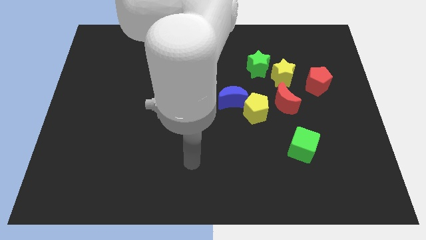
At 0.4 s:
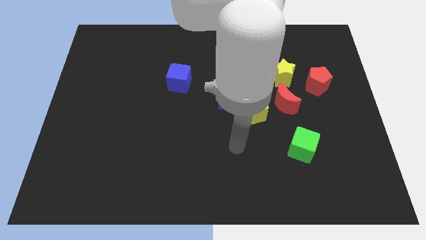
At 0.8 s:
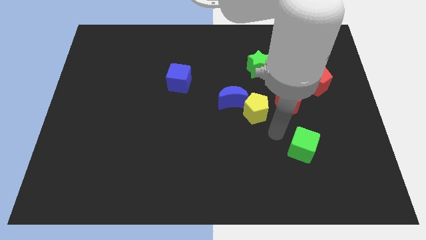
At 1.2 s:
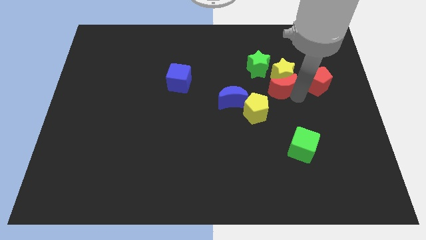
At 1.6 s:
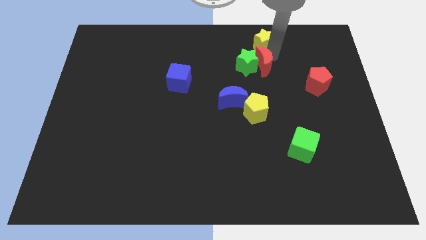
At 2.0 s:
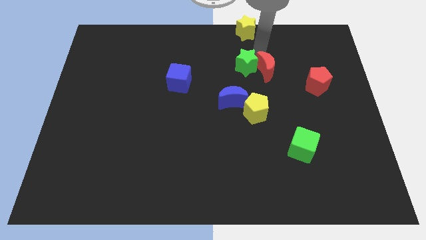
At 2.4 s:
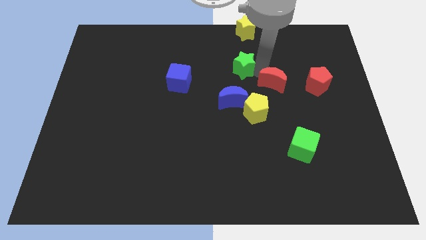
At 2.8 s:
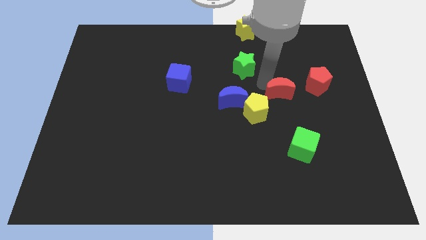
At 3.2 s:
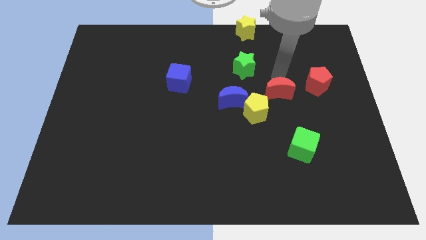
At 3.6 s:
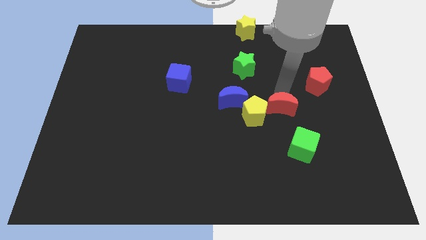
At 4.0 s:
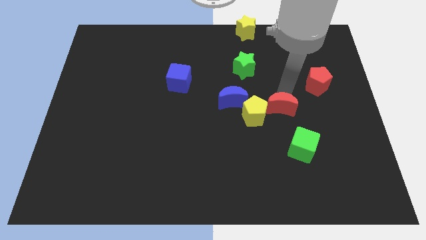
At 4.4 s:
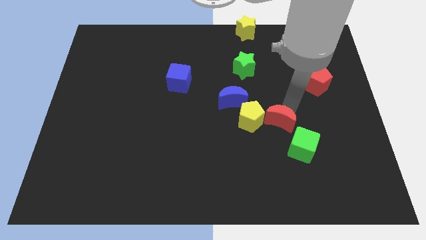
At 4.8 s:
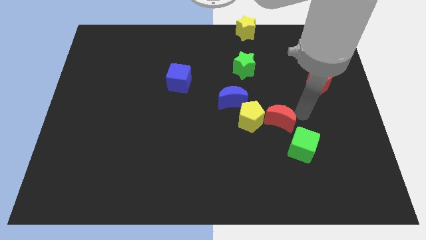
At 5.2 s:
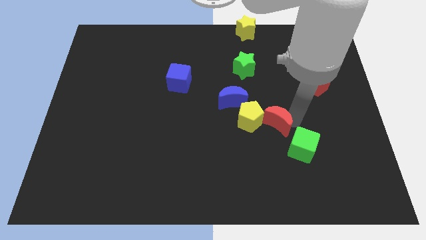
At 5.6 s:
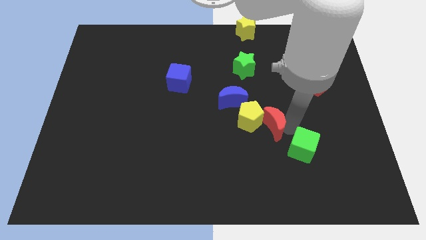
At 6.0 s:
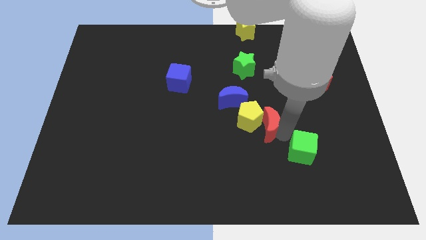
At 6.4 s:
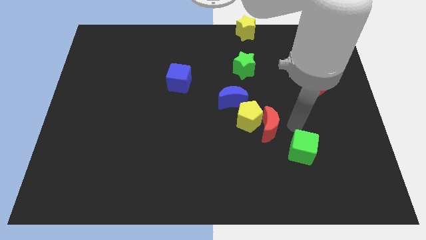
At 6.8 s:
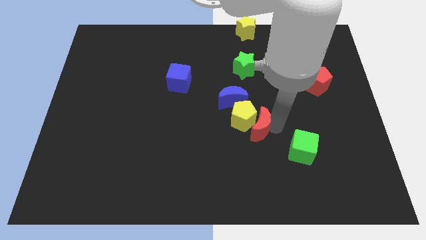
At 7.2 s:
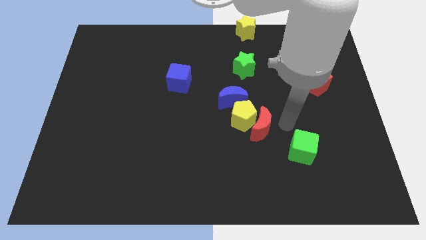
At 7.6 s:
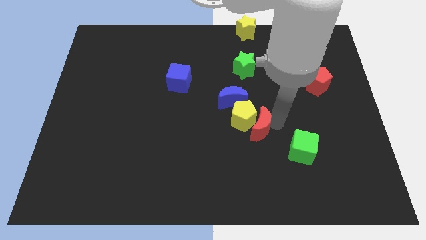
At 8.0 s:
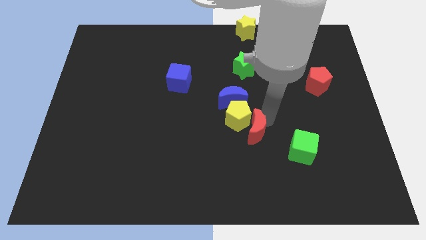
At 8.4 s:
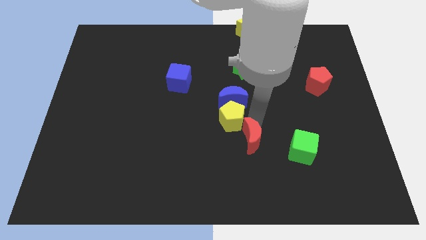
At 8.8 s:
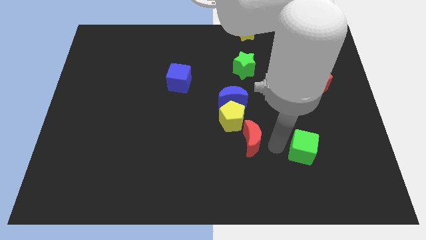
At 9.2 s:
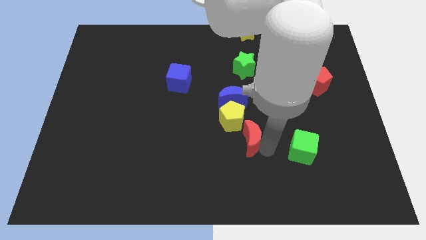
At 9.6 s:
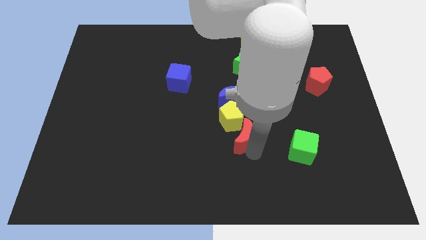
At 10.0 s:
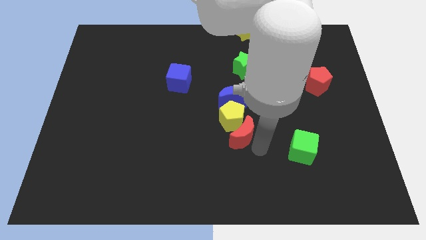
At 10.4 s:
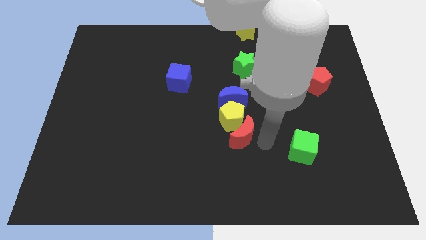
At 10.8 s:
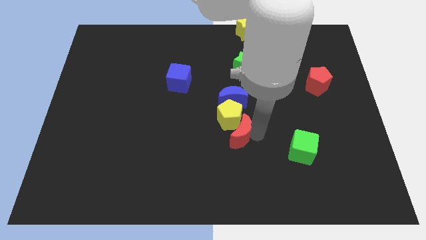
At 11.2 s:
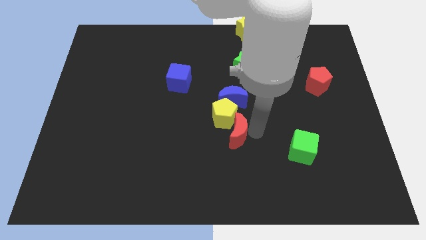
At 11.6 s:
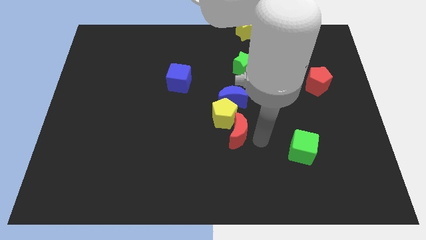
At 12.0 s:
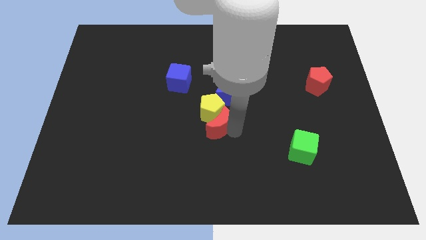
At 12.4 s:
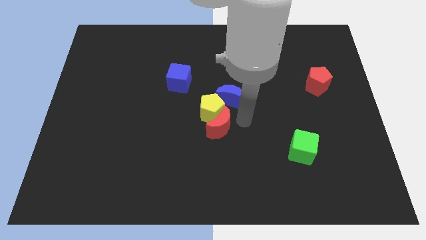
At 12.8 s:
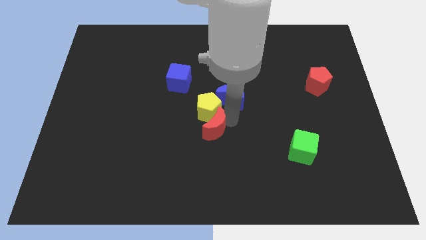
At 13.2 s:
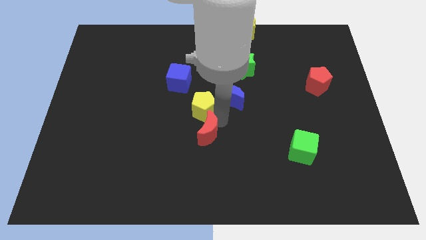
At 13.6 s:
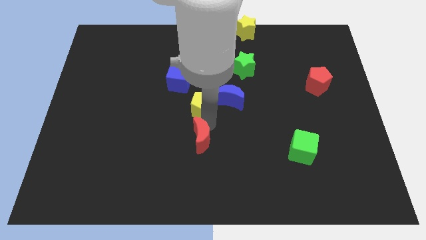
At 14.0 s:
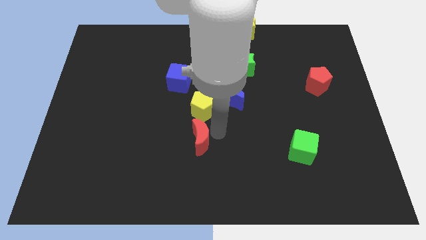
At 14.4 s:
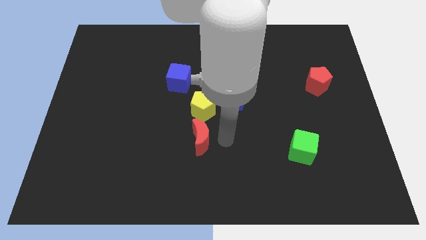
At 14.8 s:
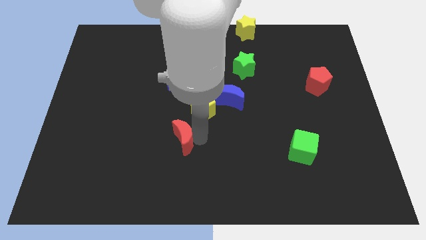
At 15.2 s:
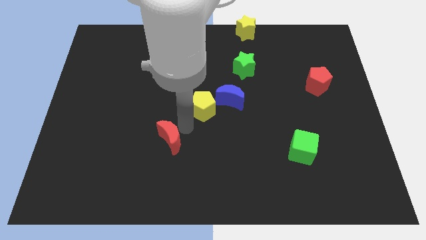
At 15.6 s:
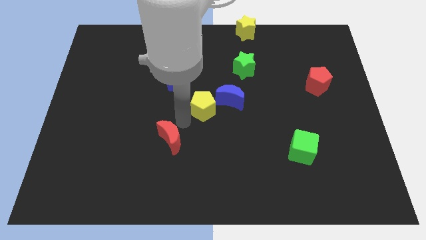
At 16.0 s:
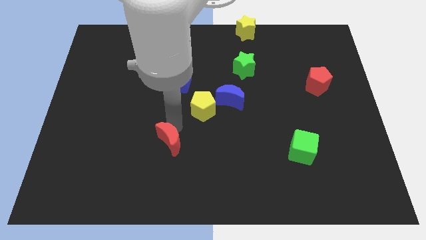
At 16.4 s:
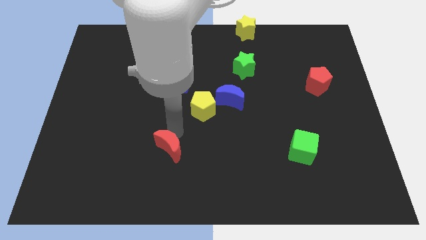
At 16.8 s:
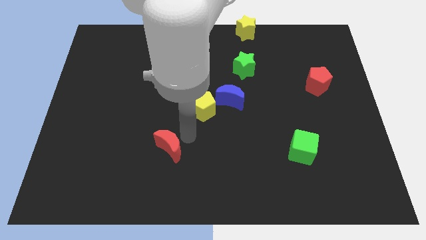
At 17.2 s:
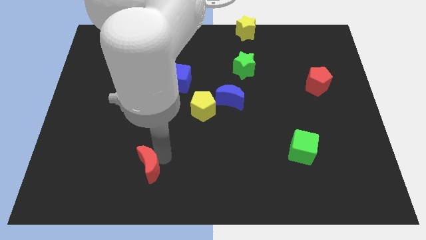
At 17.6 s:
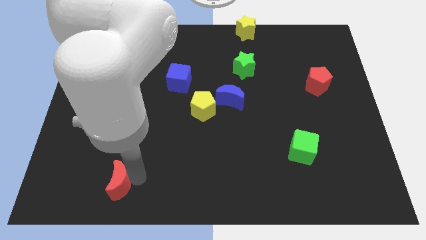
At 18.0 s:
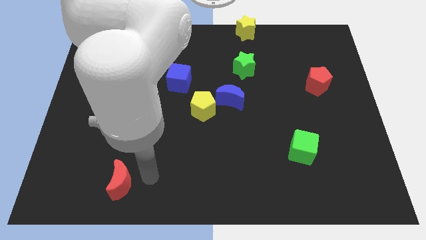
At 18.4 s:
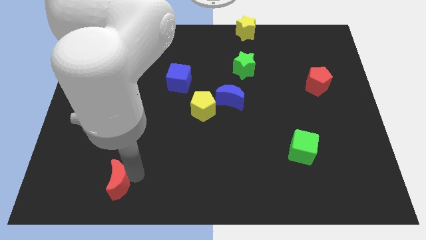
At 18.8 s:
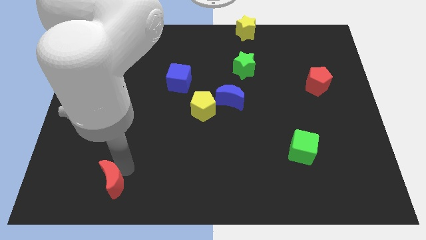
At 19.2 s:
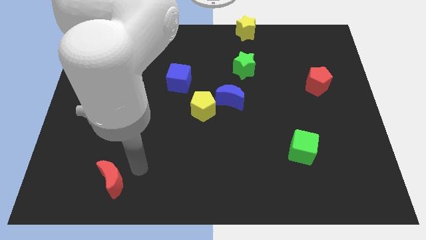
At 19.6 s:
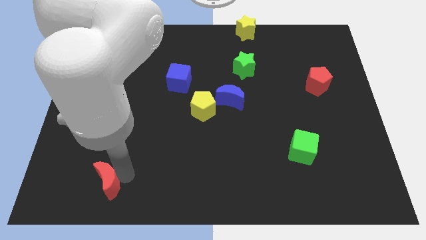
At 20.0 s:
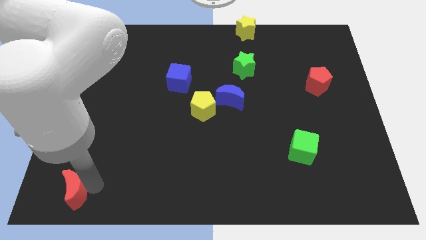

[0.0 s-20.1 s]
move the red moon to the bottom left of the board

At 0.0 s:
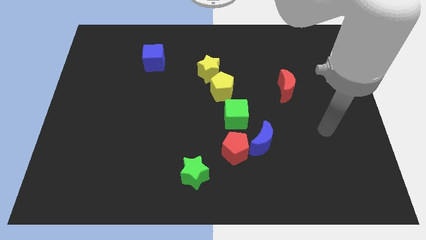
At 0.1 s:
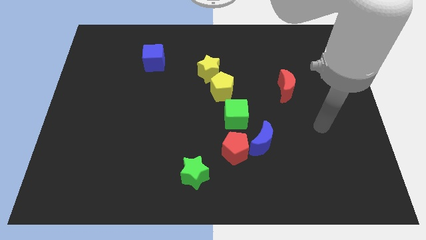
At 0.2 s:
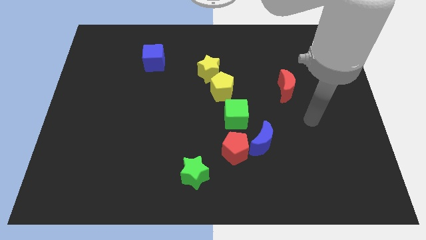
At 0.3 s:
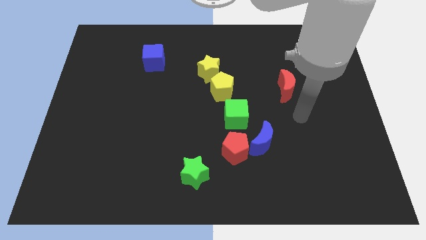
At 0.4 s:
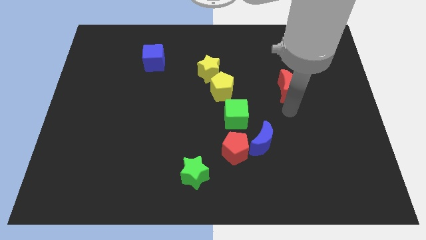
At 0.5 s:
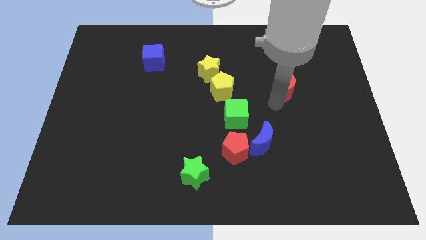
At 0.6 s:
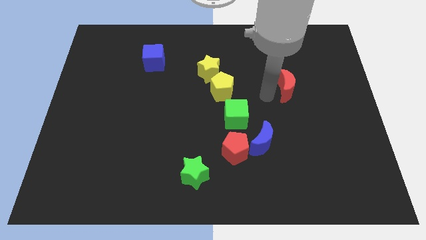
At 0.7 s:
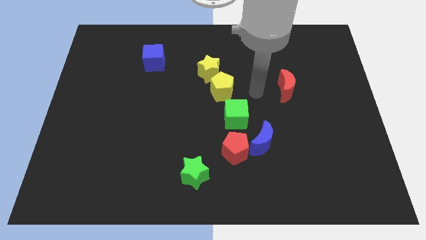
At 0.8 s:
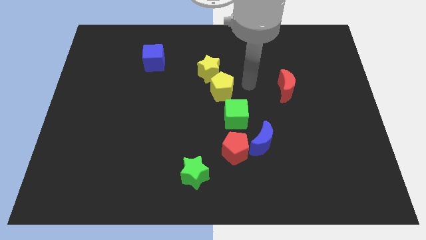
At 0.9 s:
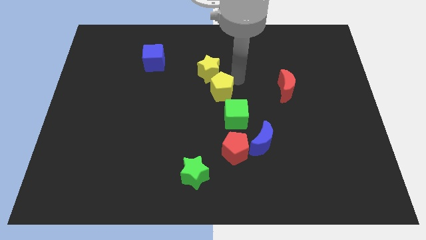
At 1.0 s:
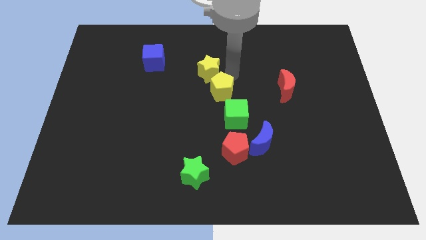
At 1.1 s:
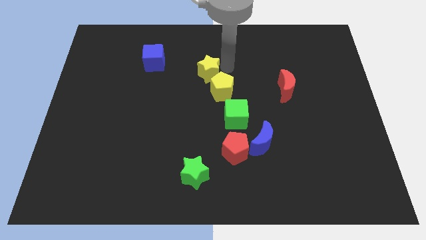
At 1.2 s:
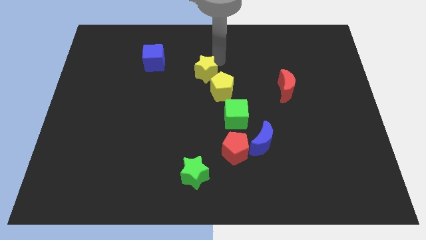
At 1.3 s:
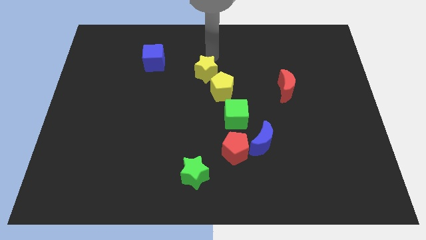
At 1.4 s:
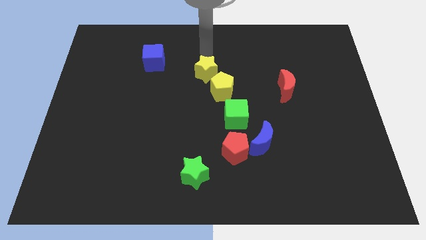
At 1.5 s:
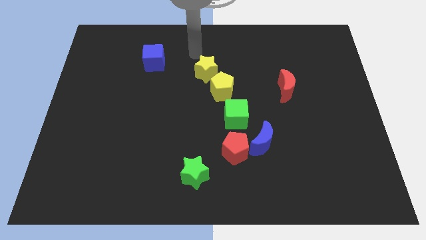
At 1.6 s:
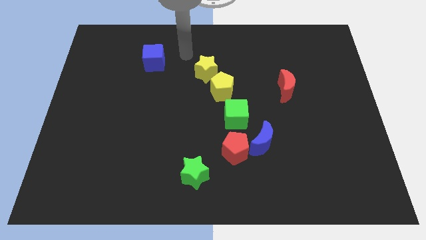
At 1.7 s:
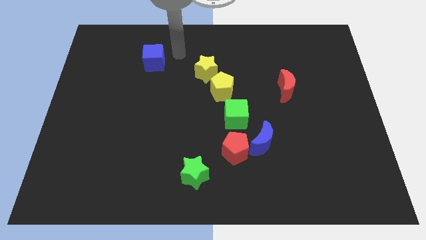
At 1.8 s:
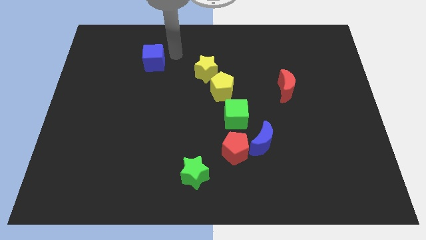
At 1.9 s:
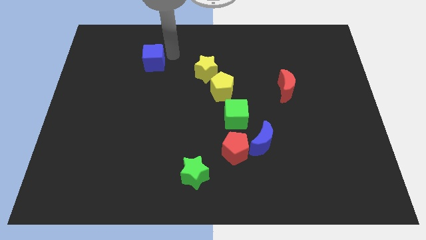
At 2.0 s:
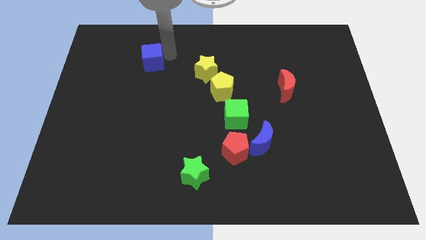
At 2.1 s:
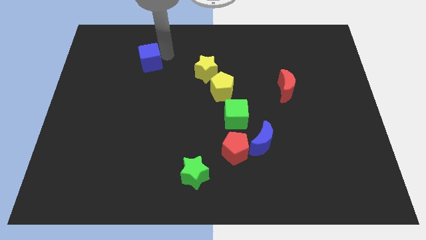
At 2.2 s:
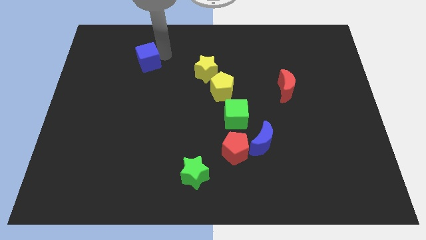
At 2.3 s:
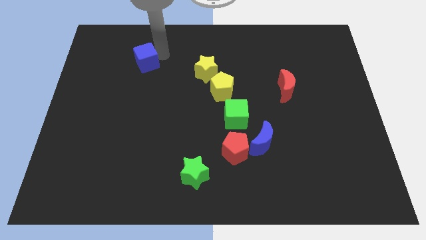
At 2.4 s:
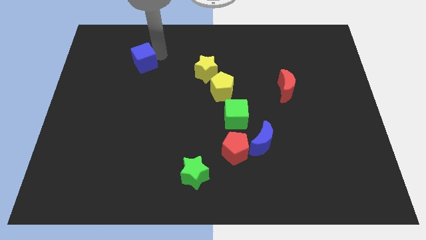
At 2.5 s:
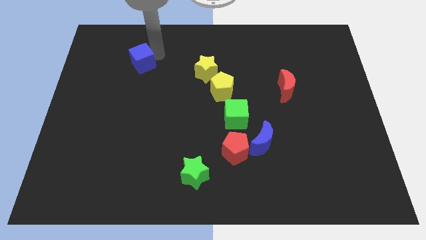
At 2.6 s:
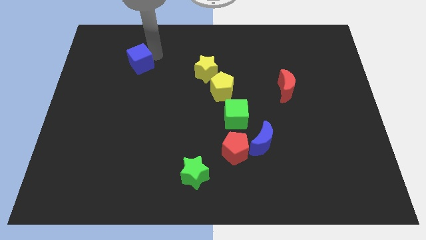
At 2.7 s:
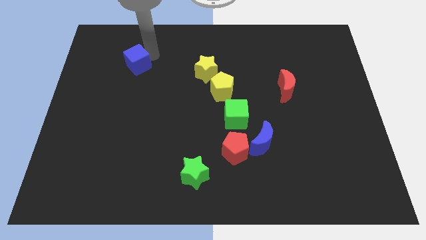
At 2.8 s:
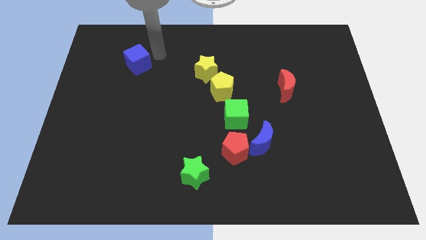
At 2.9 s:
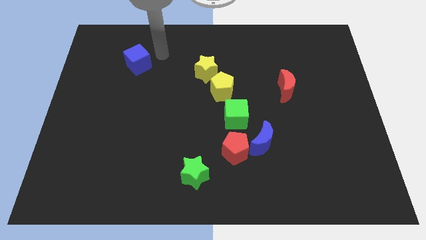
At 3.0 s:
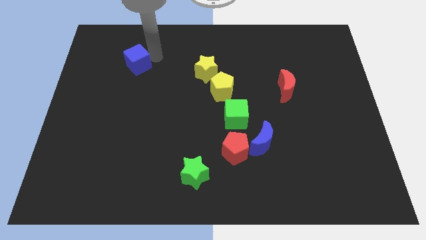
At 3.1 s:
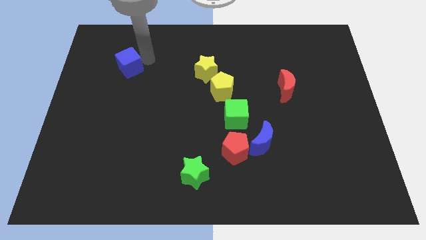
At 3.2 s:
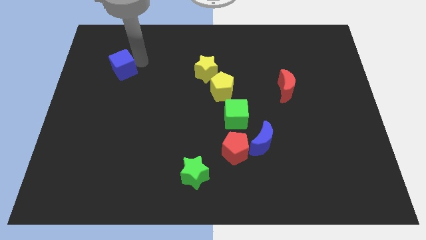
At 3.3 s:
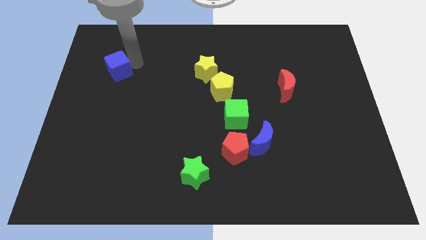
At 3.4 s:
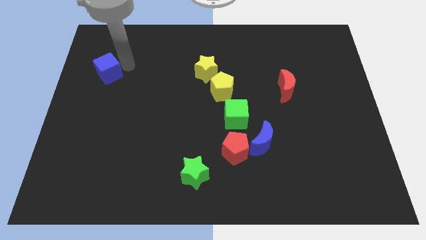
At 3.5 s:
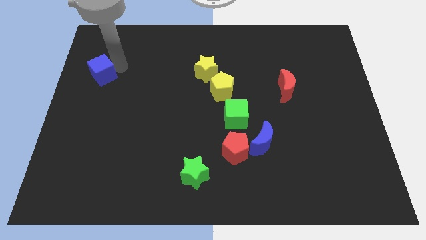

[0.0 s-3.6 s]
push the blue cube to the center left
